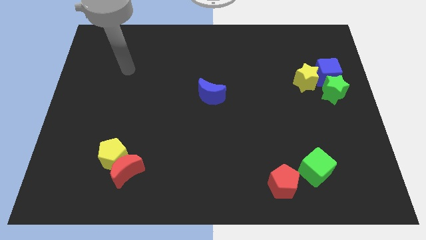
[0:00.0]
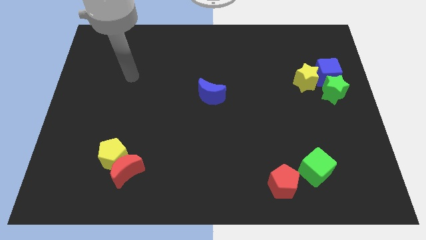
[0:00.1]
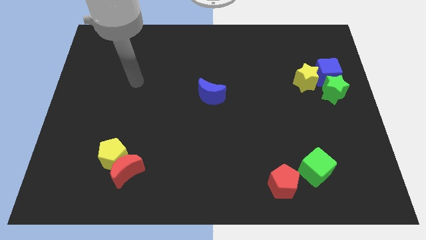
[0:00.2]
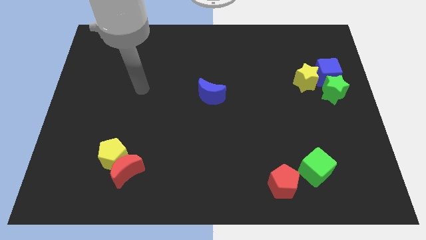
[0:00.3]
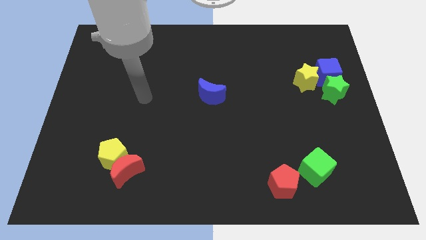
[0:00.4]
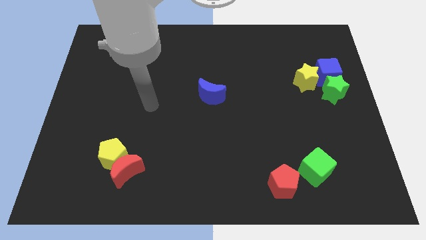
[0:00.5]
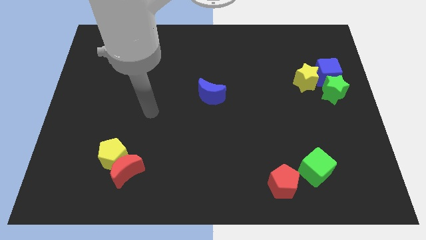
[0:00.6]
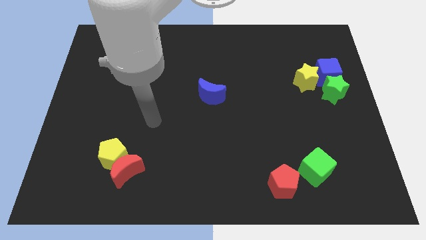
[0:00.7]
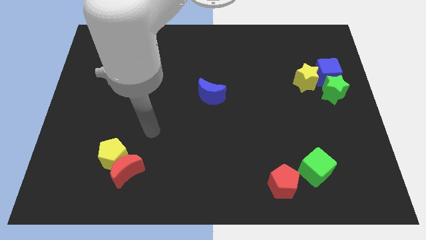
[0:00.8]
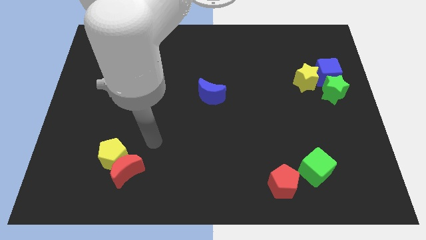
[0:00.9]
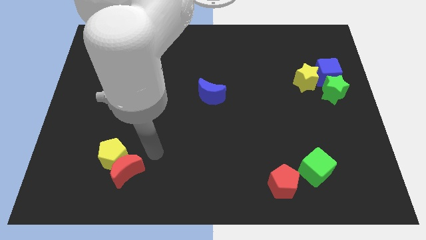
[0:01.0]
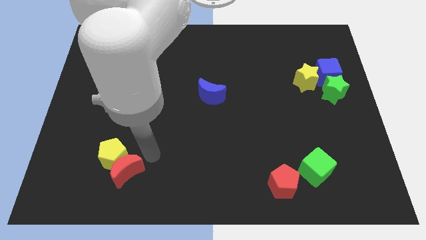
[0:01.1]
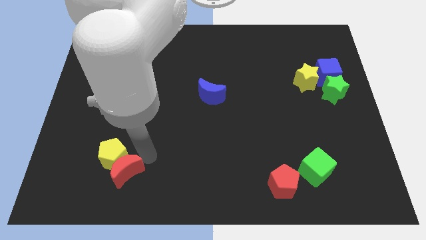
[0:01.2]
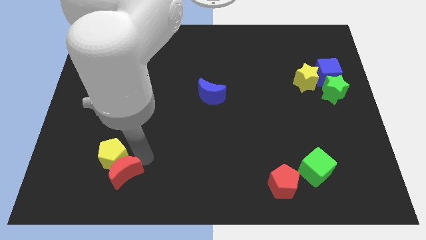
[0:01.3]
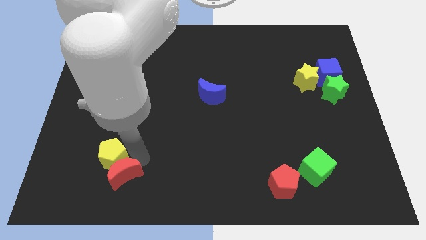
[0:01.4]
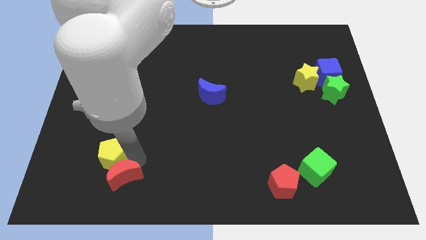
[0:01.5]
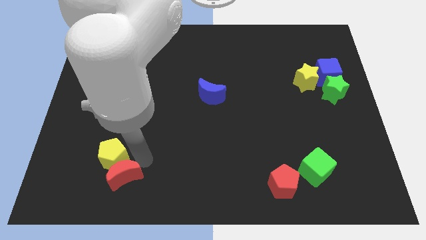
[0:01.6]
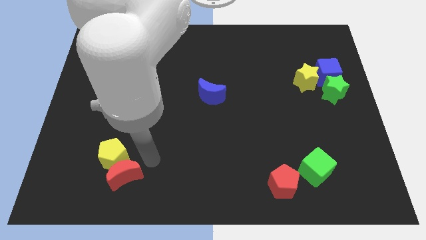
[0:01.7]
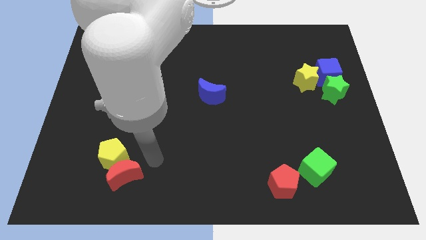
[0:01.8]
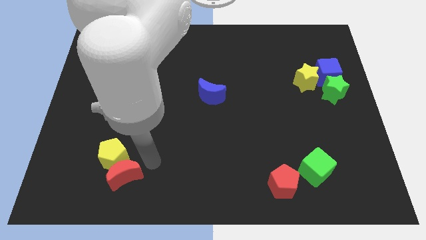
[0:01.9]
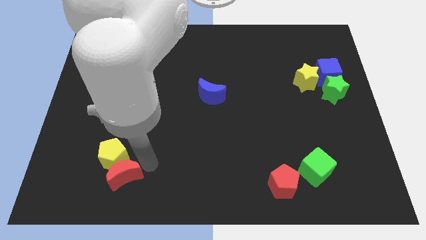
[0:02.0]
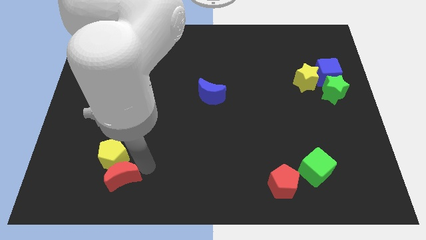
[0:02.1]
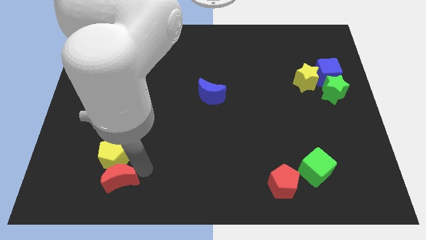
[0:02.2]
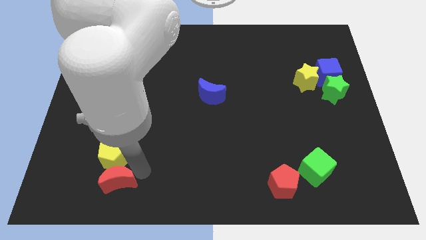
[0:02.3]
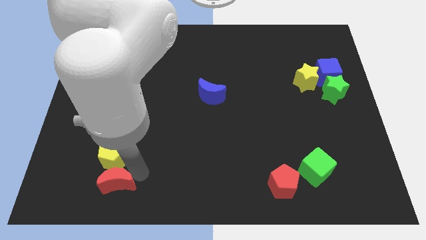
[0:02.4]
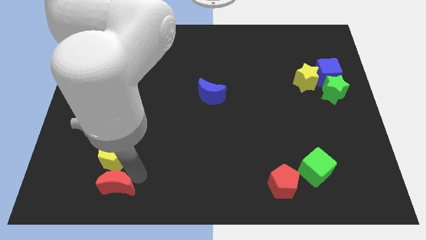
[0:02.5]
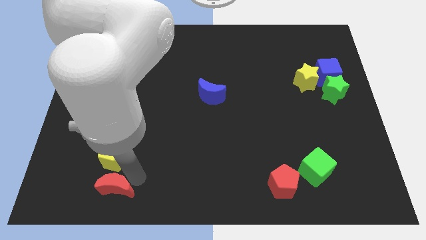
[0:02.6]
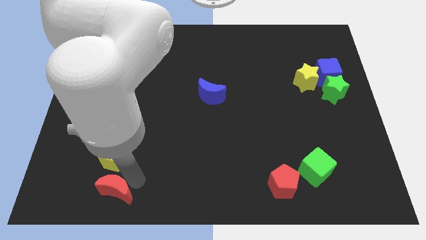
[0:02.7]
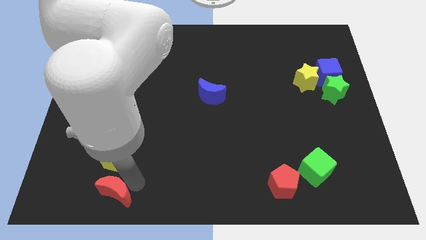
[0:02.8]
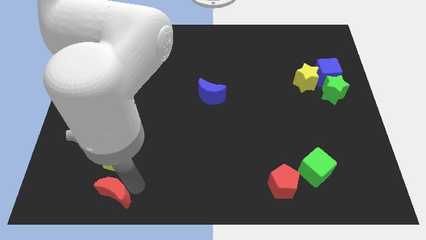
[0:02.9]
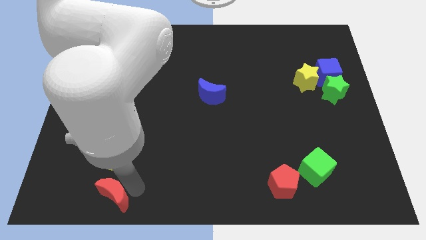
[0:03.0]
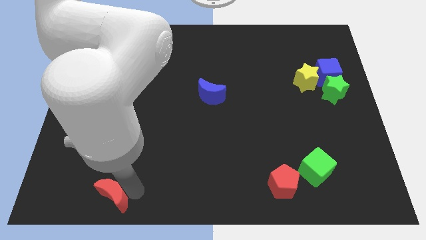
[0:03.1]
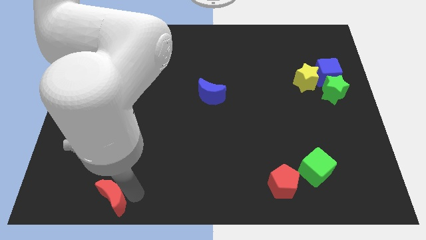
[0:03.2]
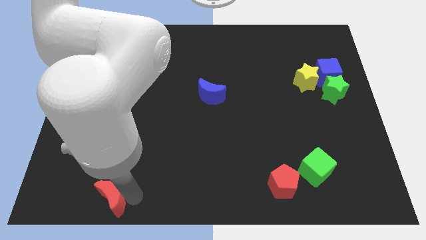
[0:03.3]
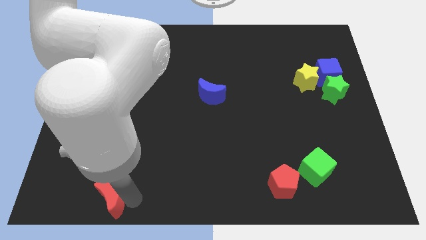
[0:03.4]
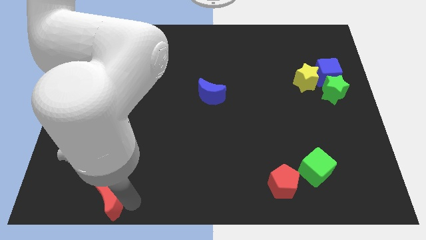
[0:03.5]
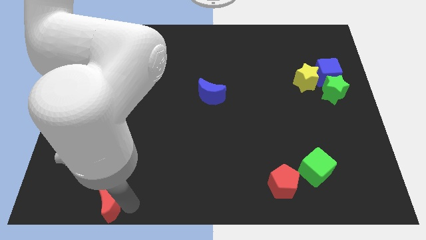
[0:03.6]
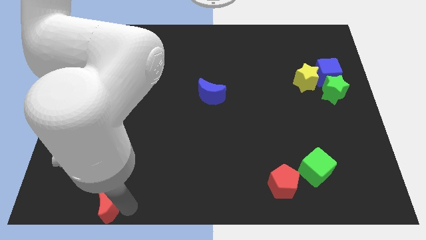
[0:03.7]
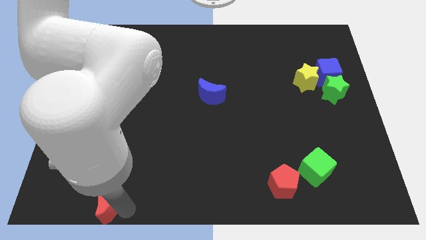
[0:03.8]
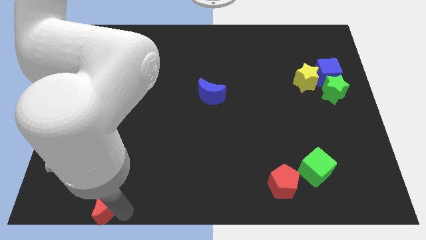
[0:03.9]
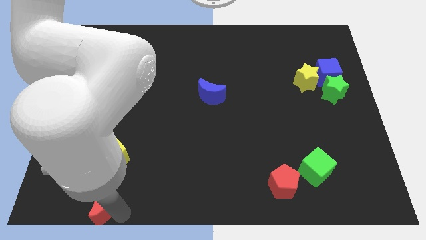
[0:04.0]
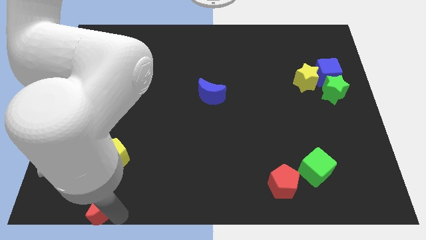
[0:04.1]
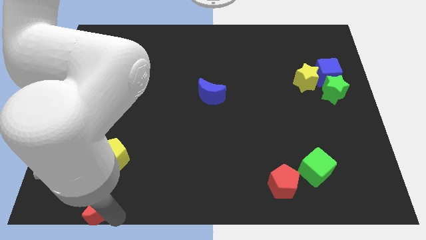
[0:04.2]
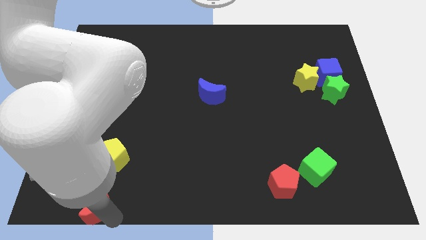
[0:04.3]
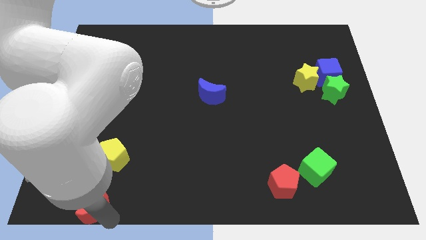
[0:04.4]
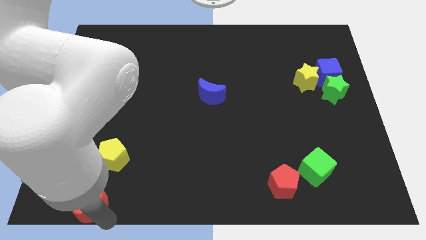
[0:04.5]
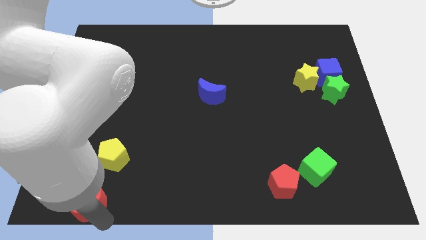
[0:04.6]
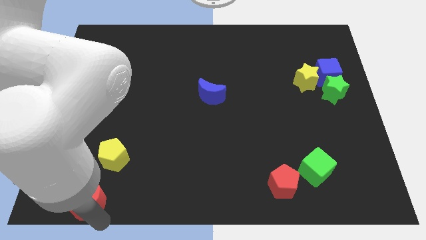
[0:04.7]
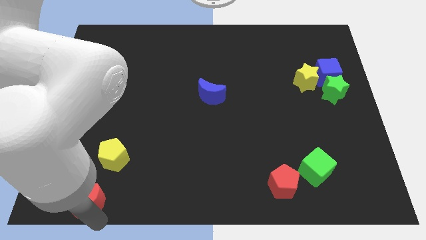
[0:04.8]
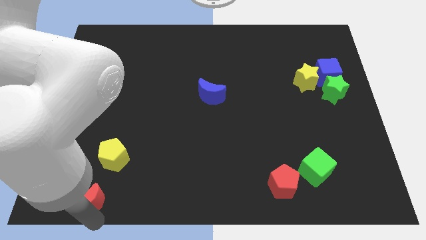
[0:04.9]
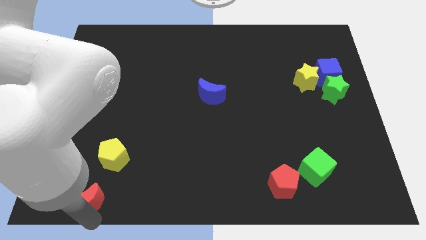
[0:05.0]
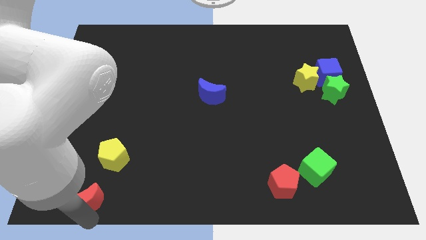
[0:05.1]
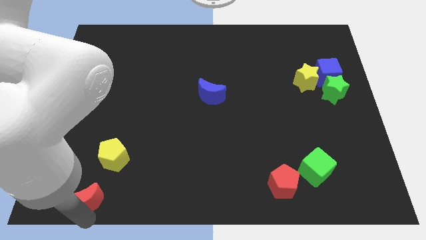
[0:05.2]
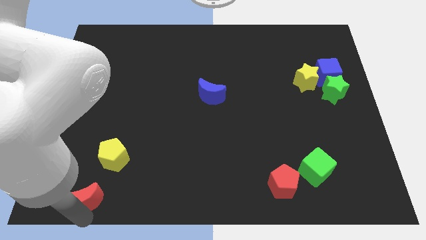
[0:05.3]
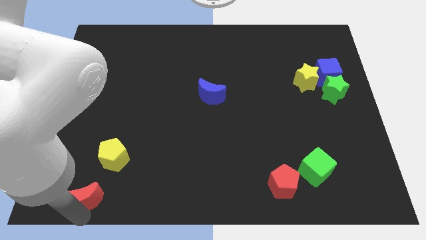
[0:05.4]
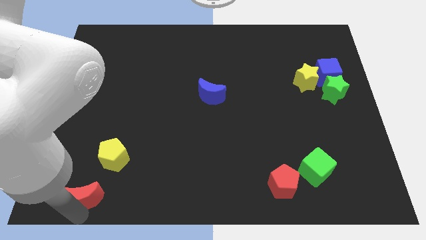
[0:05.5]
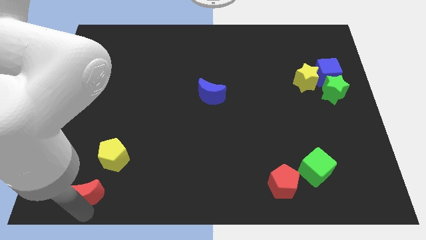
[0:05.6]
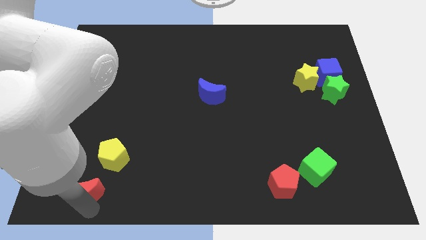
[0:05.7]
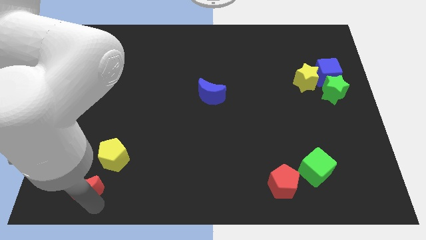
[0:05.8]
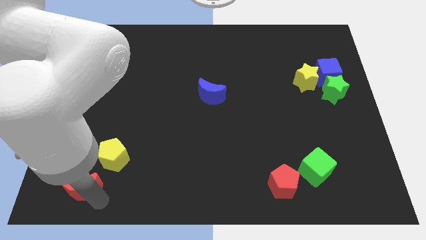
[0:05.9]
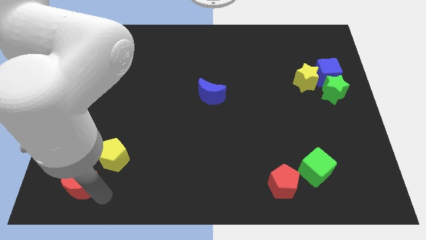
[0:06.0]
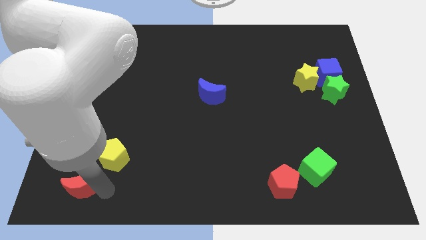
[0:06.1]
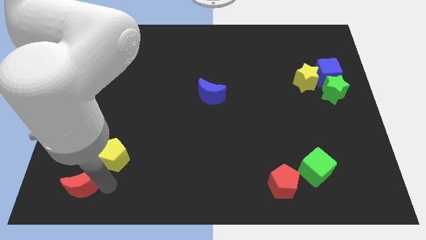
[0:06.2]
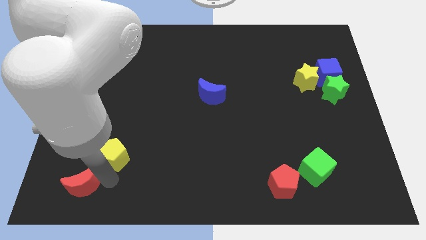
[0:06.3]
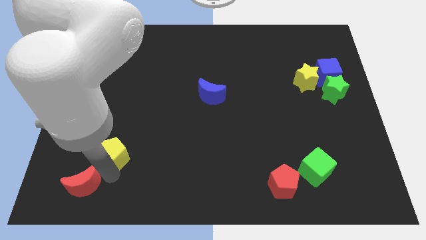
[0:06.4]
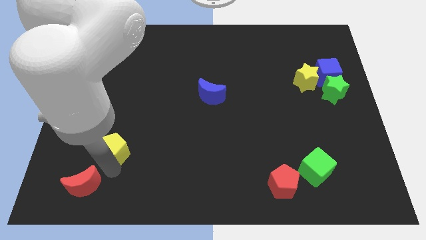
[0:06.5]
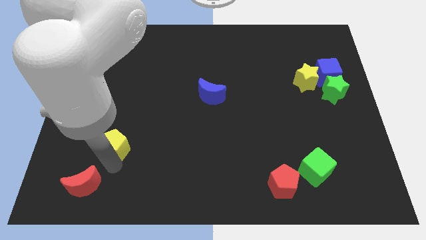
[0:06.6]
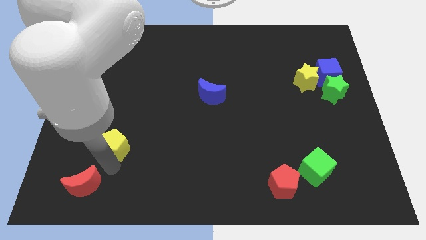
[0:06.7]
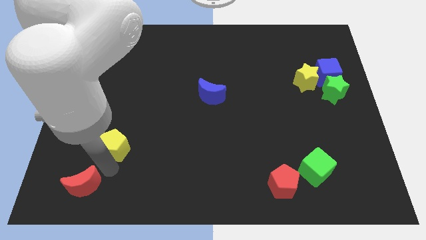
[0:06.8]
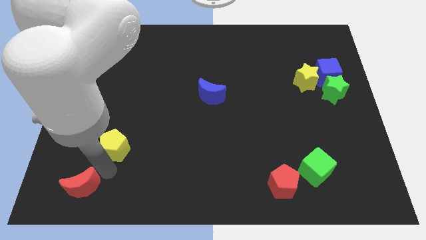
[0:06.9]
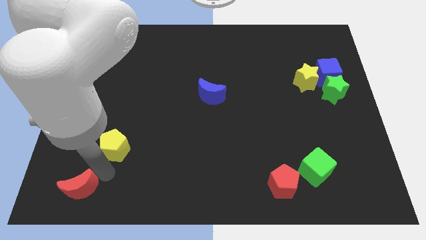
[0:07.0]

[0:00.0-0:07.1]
put the red moon to the bottom left corner

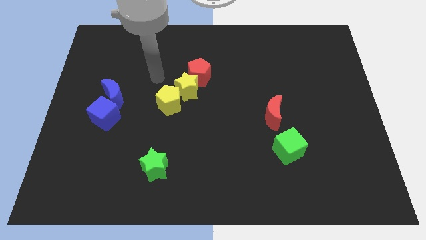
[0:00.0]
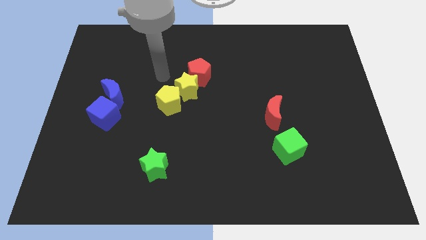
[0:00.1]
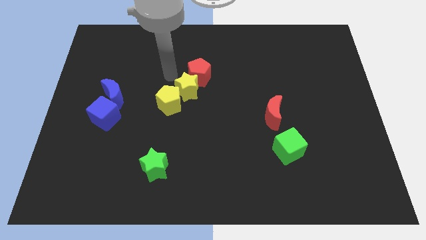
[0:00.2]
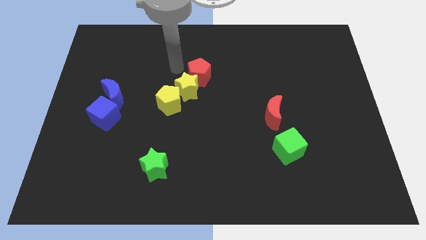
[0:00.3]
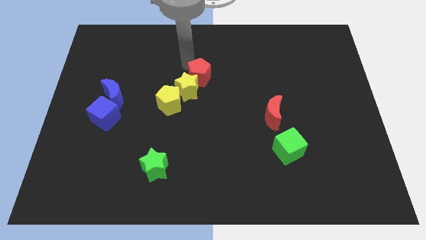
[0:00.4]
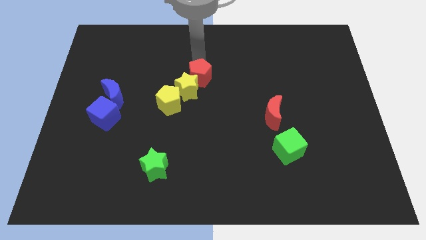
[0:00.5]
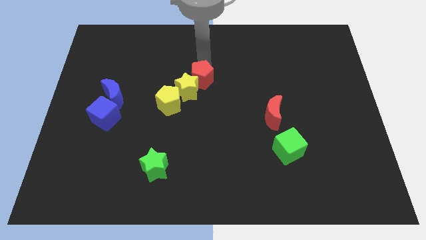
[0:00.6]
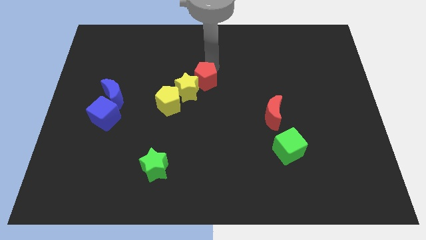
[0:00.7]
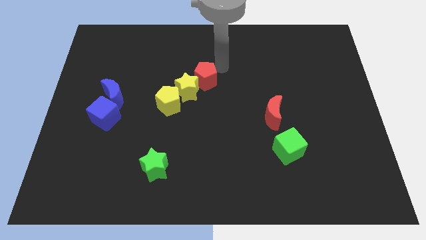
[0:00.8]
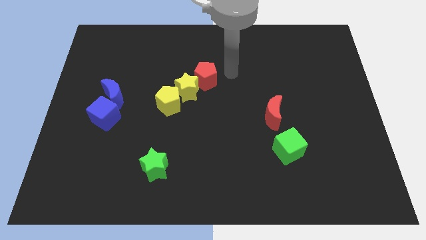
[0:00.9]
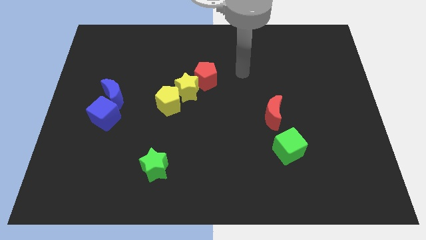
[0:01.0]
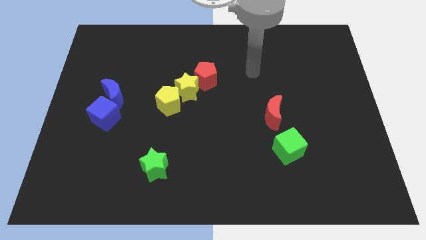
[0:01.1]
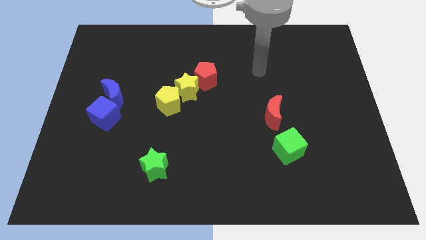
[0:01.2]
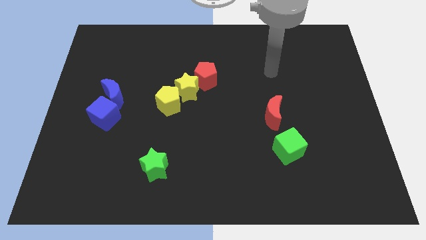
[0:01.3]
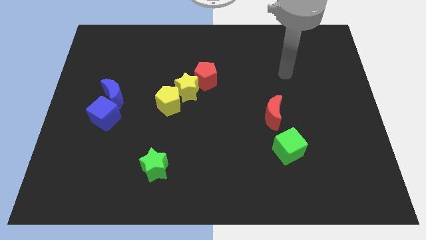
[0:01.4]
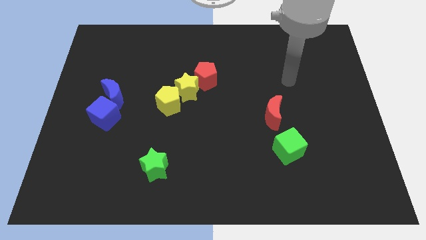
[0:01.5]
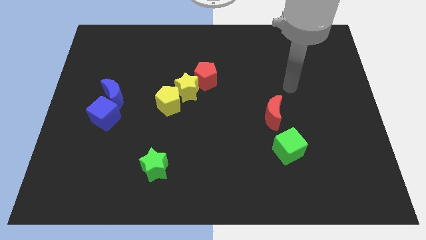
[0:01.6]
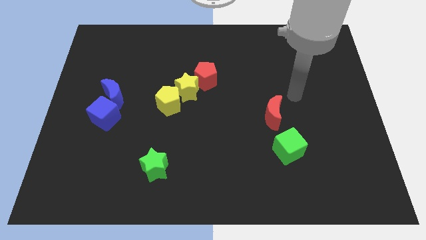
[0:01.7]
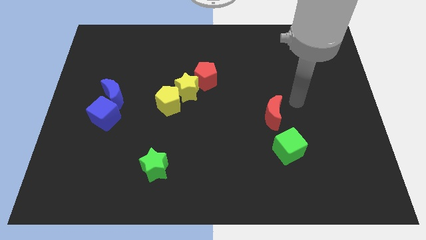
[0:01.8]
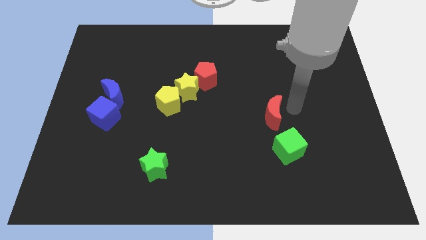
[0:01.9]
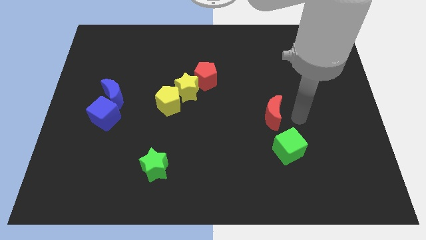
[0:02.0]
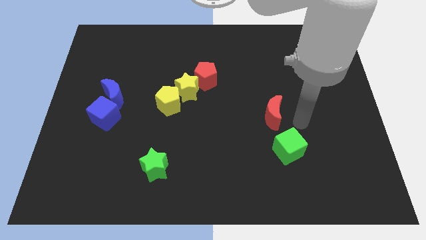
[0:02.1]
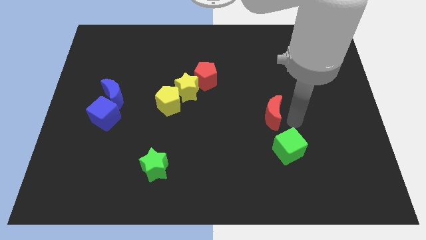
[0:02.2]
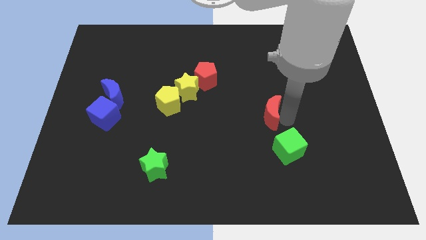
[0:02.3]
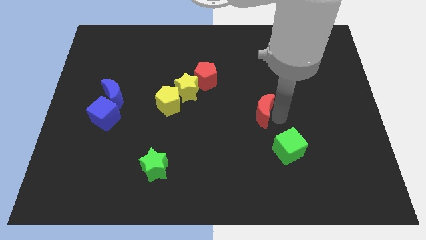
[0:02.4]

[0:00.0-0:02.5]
push the red moon to the center of the board
